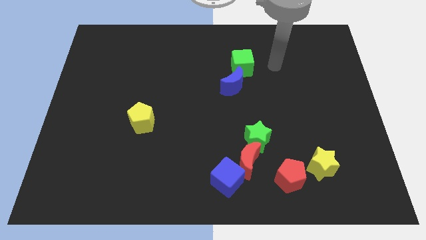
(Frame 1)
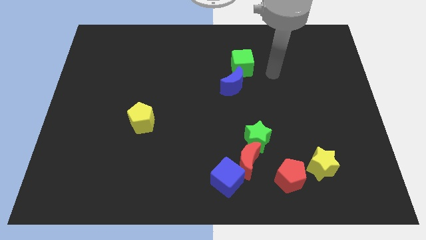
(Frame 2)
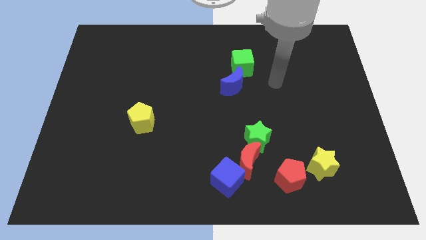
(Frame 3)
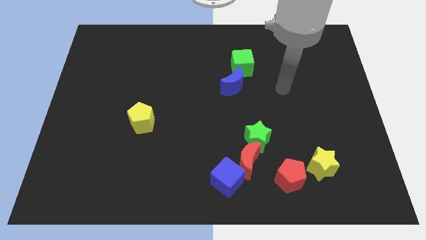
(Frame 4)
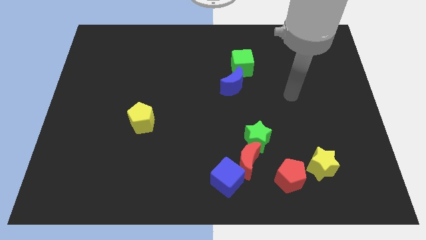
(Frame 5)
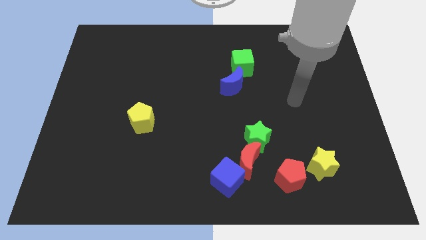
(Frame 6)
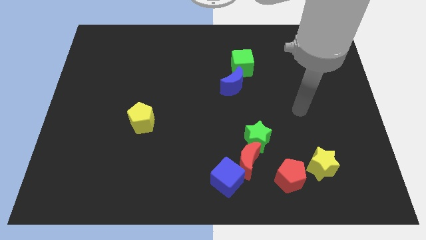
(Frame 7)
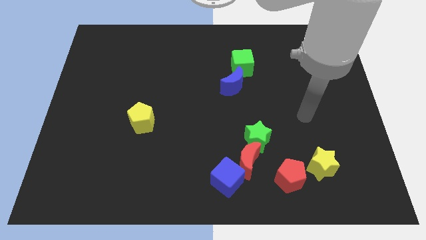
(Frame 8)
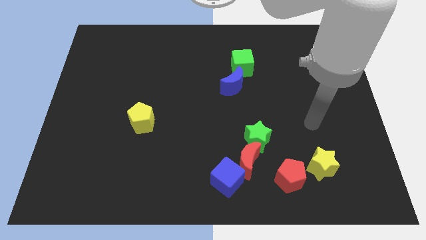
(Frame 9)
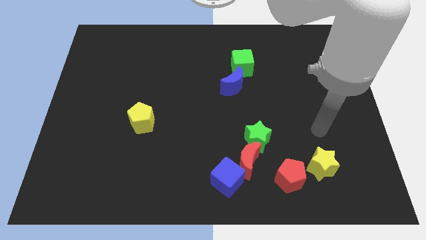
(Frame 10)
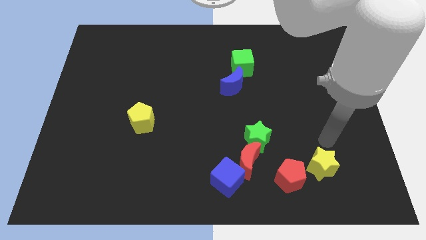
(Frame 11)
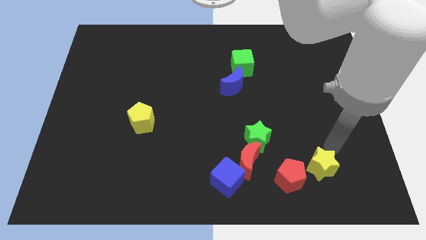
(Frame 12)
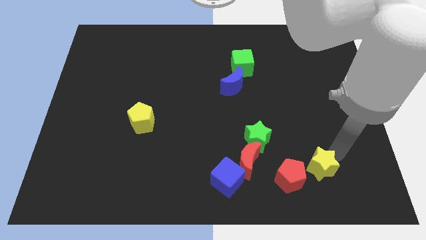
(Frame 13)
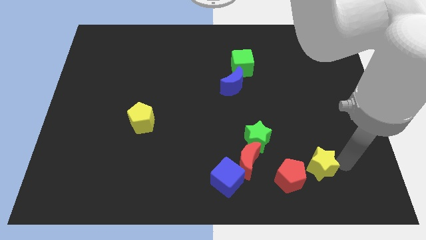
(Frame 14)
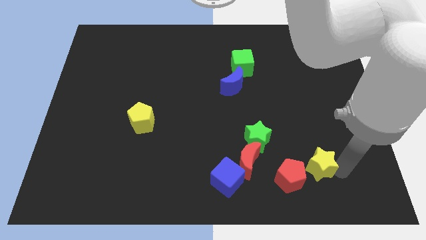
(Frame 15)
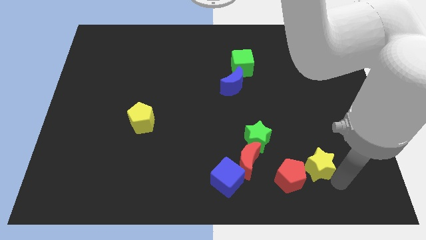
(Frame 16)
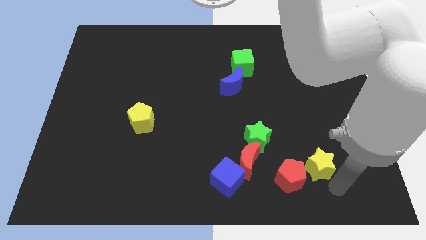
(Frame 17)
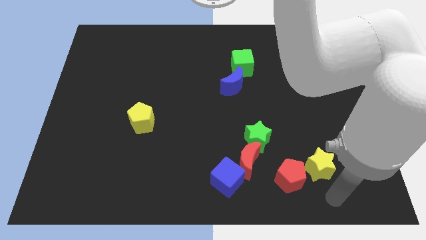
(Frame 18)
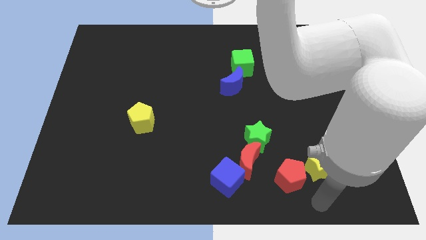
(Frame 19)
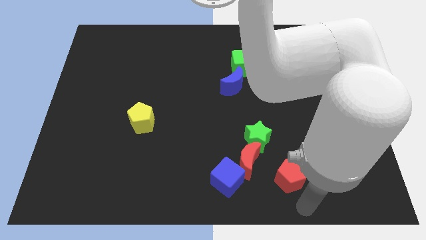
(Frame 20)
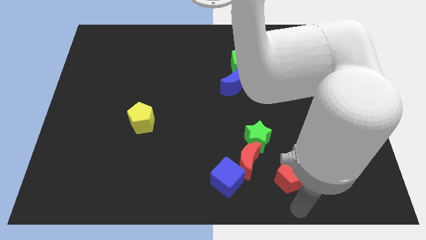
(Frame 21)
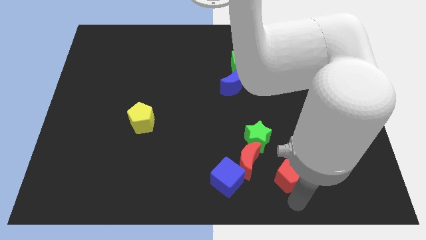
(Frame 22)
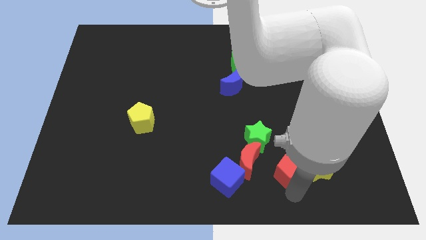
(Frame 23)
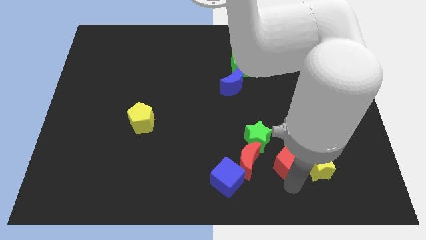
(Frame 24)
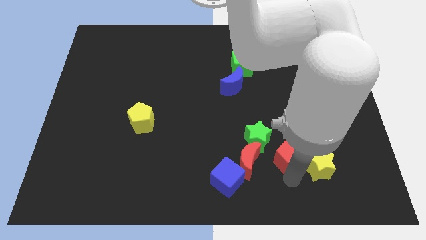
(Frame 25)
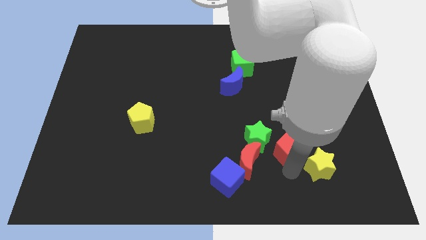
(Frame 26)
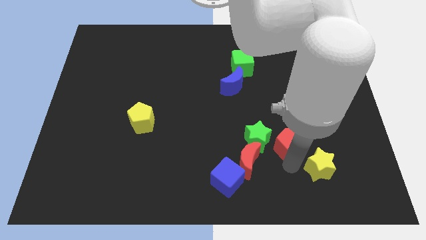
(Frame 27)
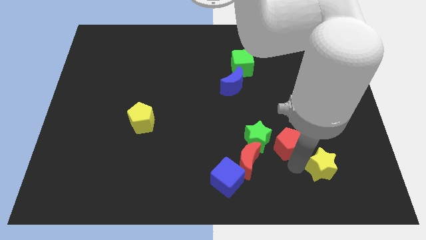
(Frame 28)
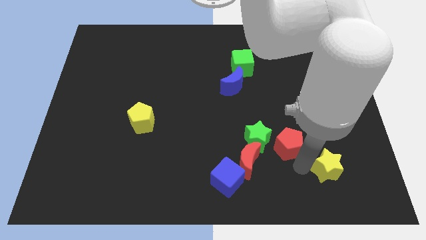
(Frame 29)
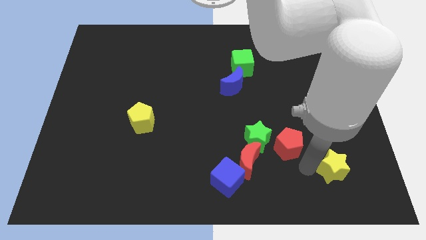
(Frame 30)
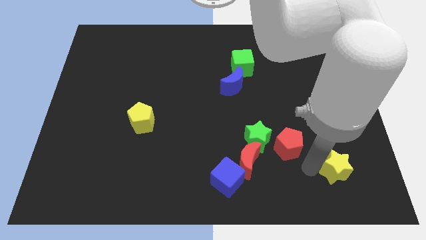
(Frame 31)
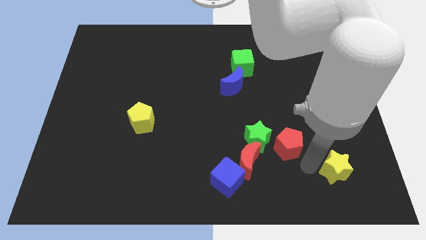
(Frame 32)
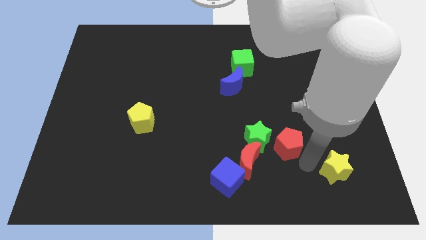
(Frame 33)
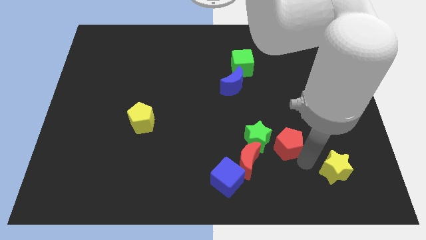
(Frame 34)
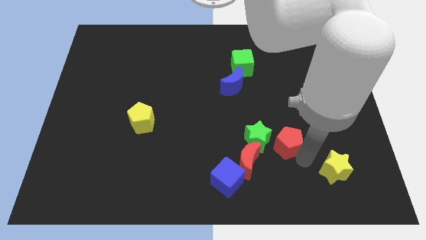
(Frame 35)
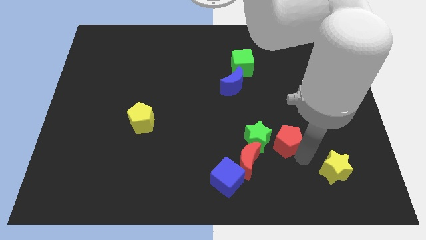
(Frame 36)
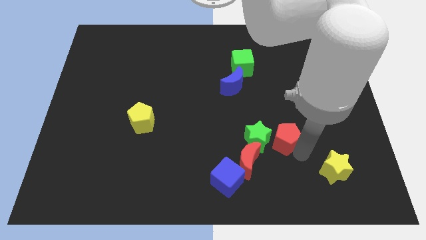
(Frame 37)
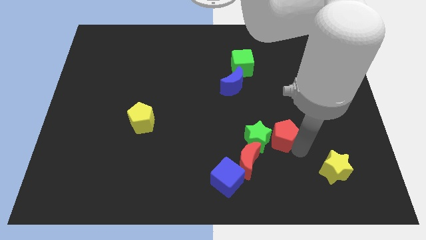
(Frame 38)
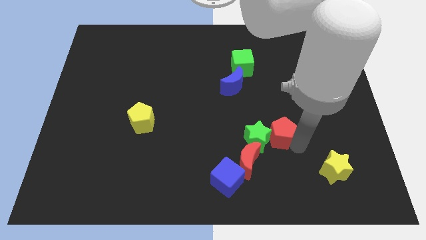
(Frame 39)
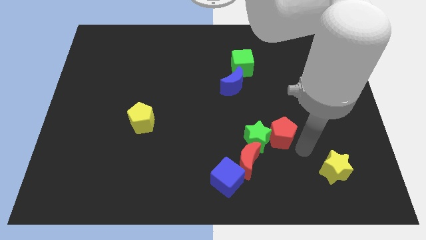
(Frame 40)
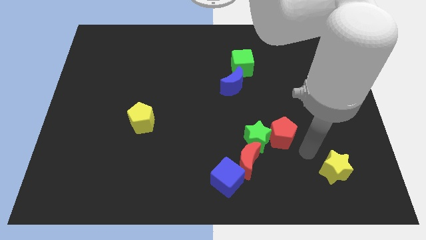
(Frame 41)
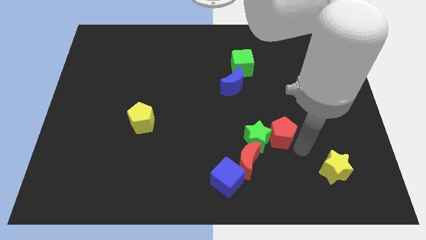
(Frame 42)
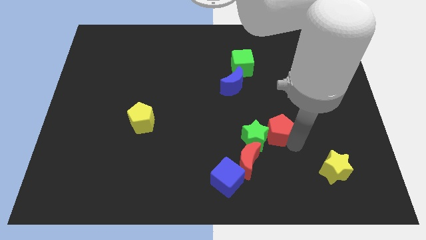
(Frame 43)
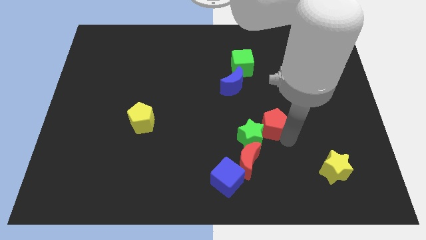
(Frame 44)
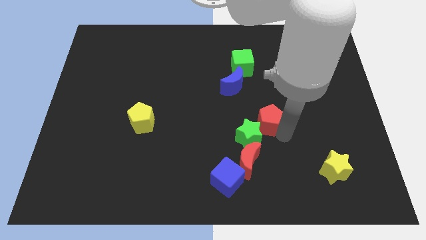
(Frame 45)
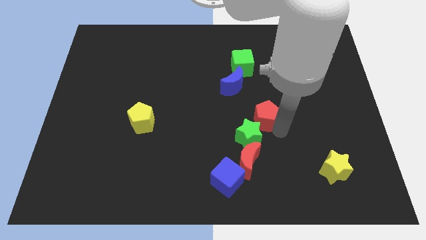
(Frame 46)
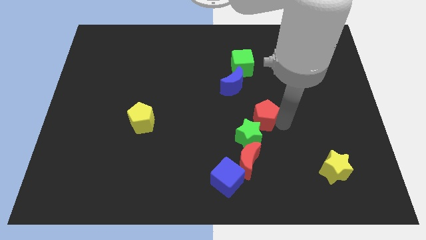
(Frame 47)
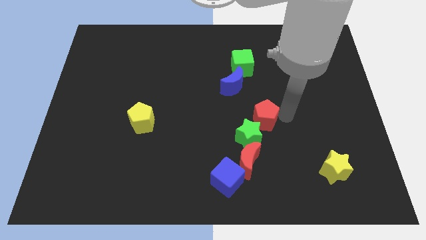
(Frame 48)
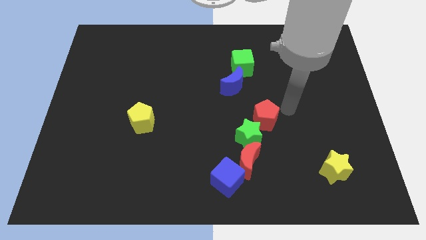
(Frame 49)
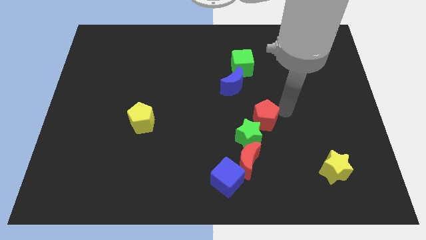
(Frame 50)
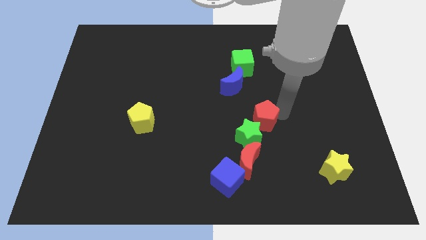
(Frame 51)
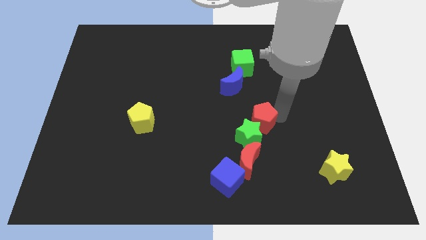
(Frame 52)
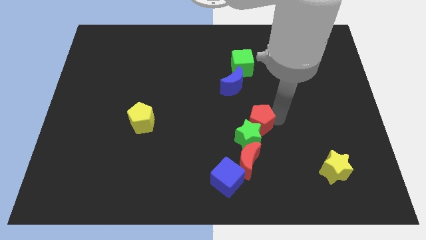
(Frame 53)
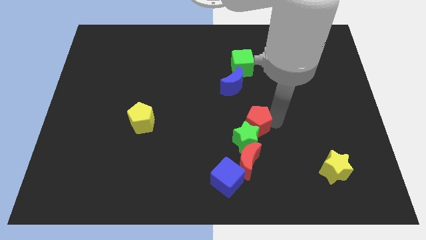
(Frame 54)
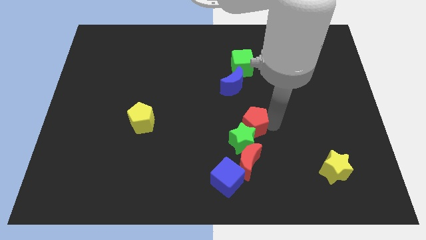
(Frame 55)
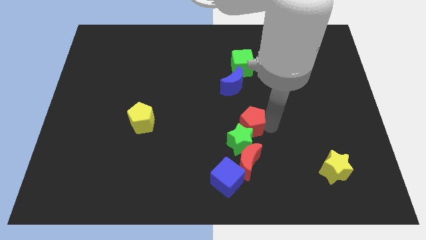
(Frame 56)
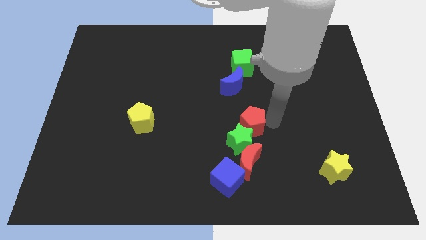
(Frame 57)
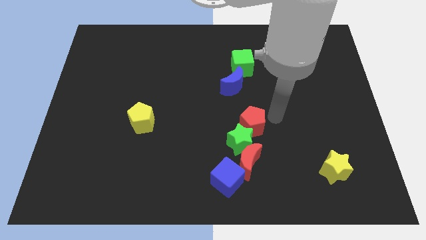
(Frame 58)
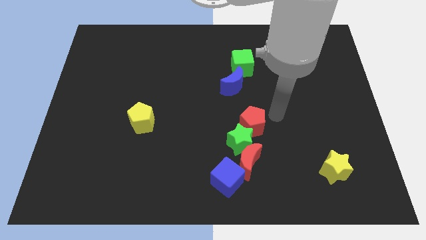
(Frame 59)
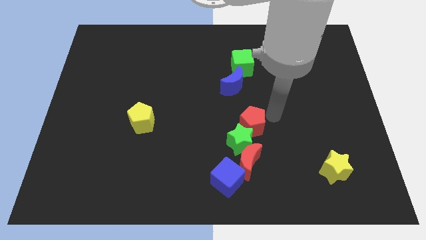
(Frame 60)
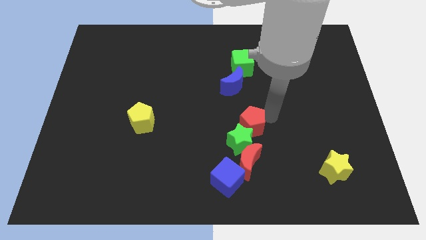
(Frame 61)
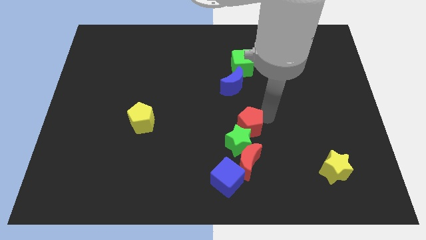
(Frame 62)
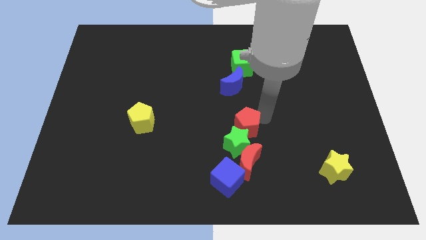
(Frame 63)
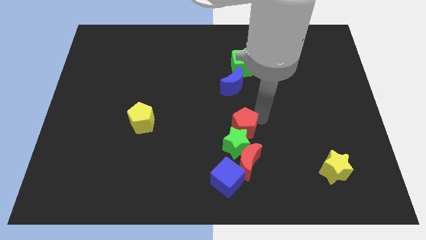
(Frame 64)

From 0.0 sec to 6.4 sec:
move the red pentagon to the top of the blue cube

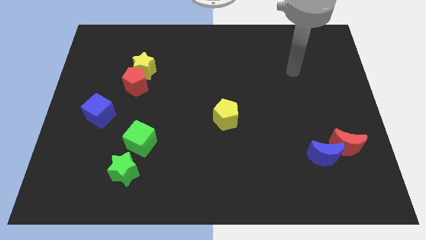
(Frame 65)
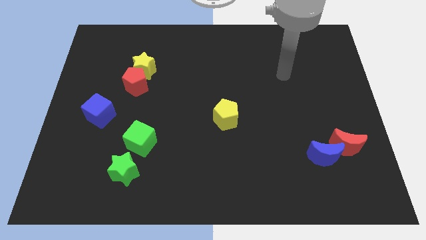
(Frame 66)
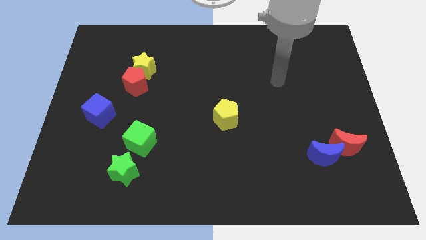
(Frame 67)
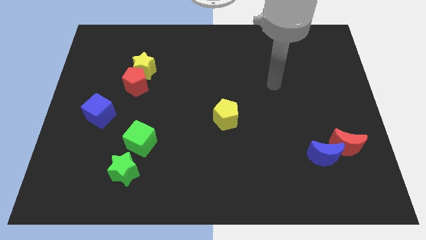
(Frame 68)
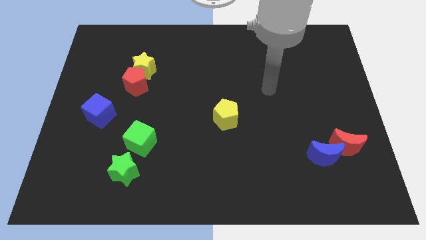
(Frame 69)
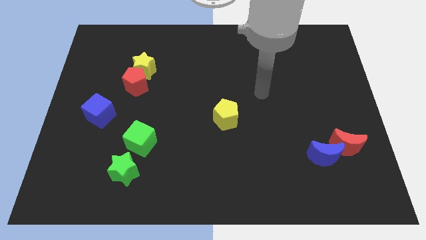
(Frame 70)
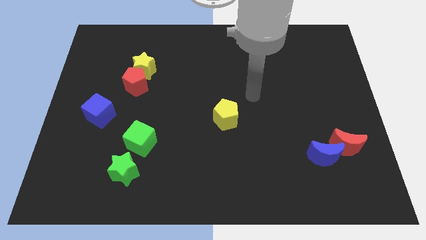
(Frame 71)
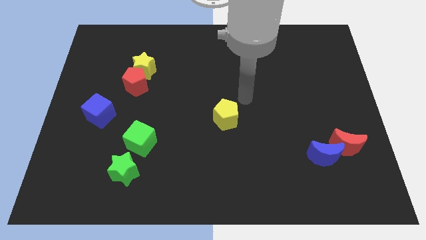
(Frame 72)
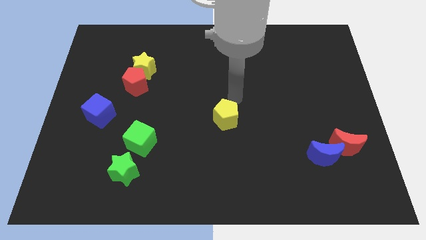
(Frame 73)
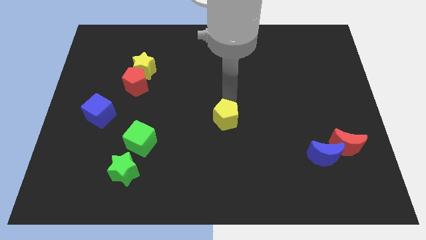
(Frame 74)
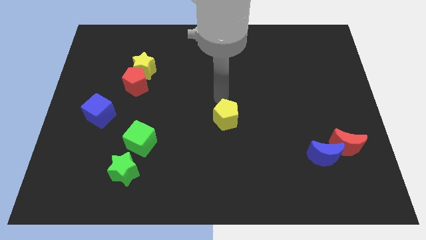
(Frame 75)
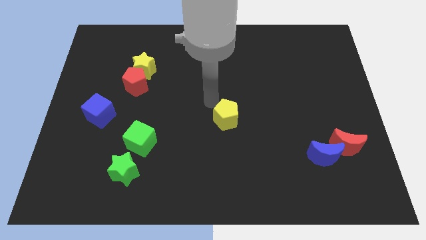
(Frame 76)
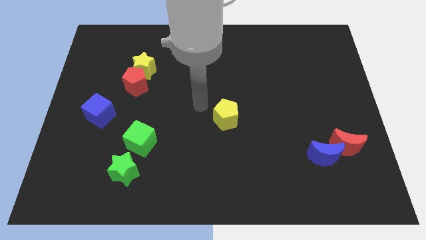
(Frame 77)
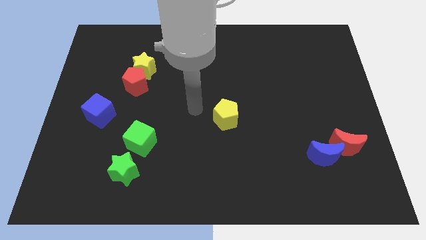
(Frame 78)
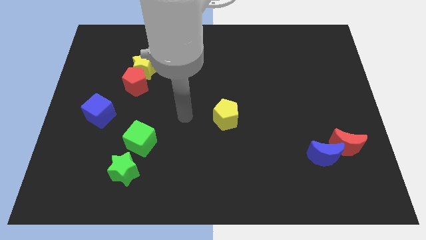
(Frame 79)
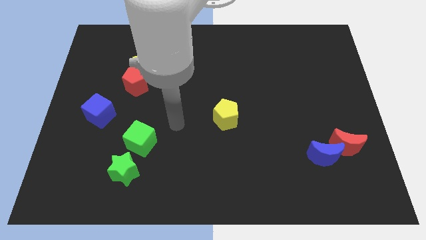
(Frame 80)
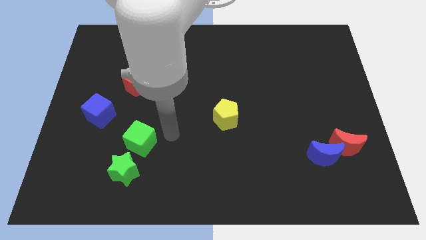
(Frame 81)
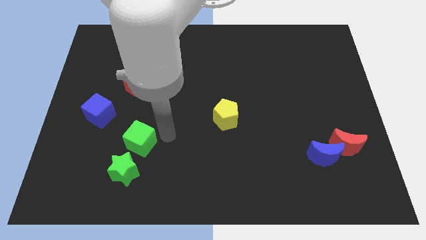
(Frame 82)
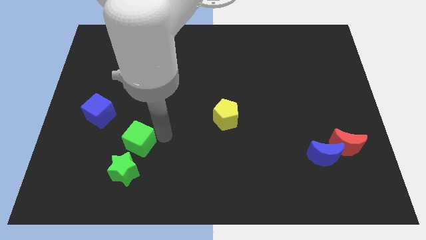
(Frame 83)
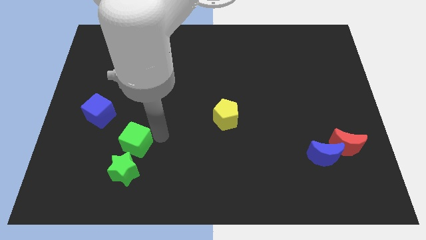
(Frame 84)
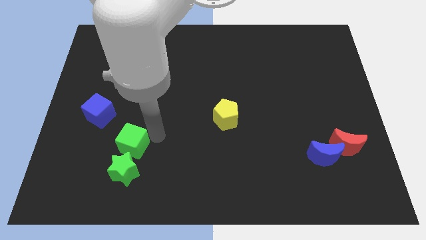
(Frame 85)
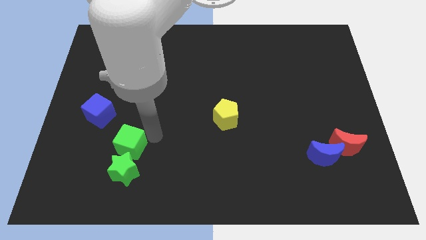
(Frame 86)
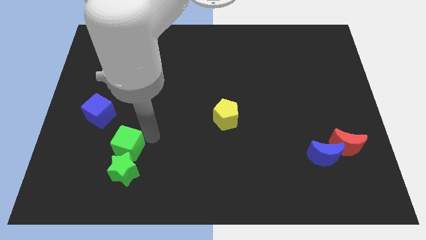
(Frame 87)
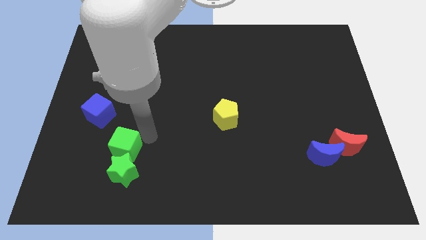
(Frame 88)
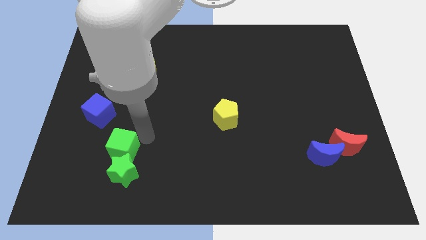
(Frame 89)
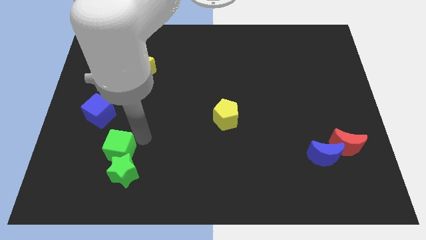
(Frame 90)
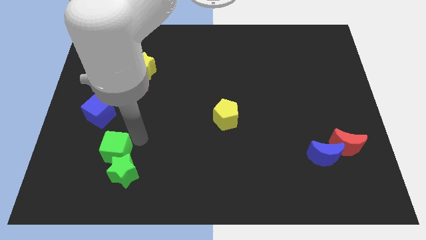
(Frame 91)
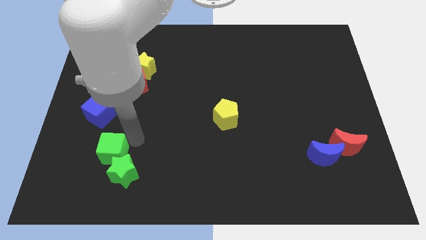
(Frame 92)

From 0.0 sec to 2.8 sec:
slide the green cube to the bottom of the blue cube
